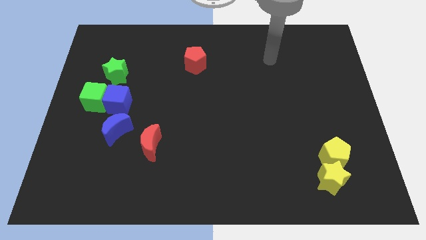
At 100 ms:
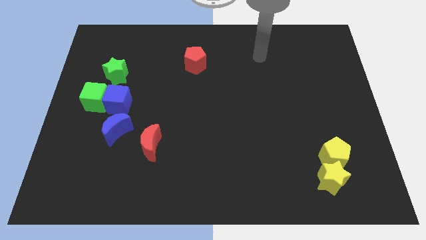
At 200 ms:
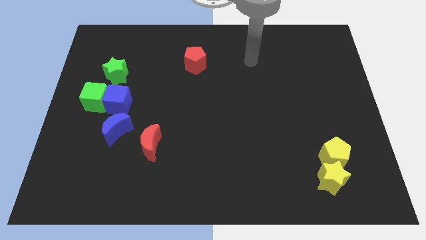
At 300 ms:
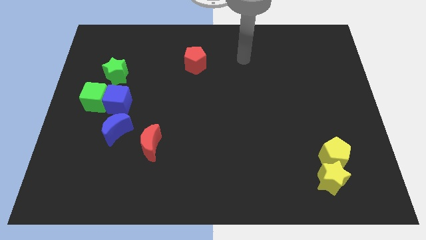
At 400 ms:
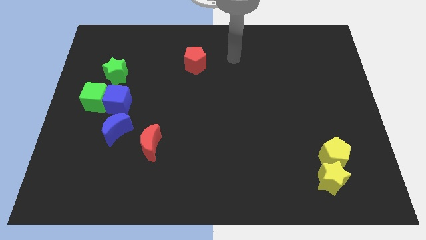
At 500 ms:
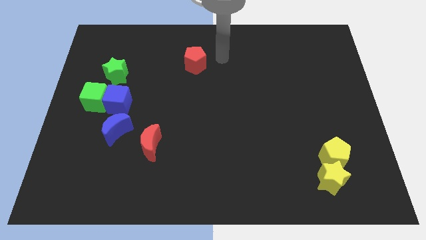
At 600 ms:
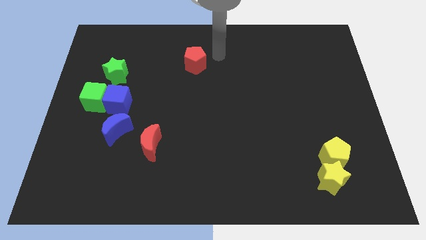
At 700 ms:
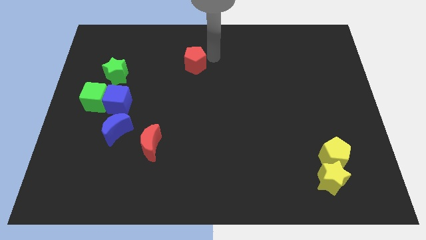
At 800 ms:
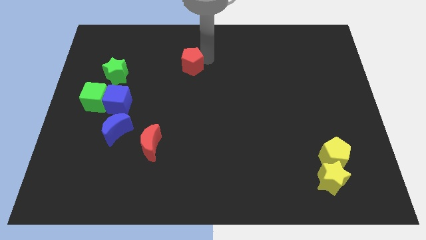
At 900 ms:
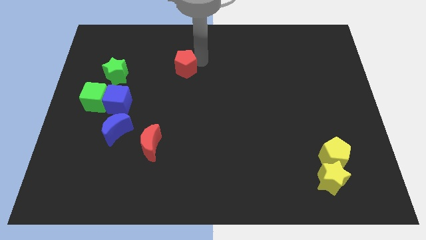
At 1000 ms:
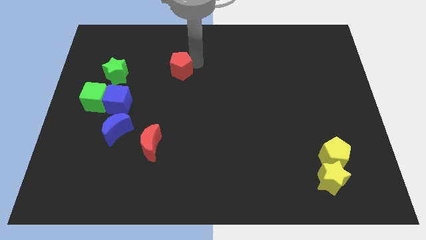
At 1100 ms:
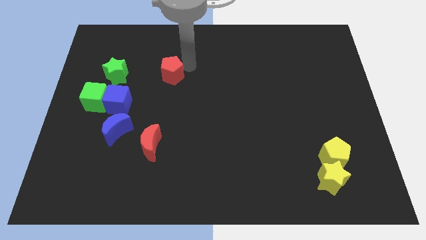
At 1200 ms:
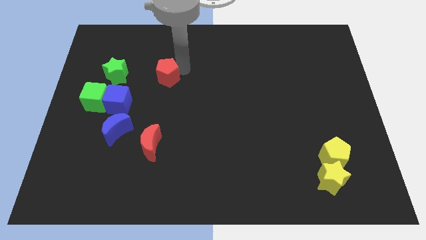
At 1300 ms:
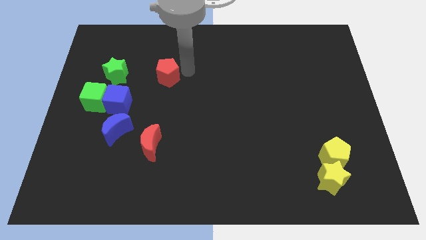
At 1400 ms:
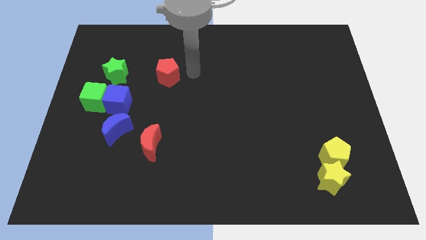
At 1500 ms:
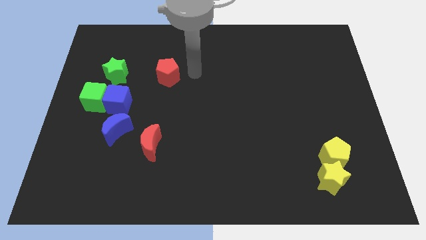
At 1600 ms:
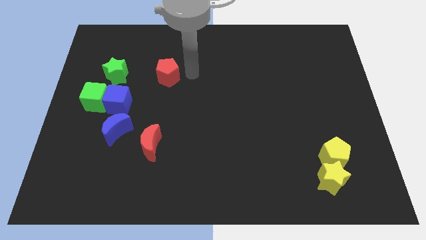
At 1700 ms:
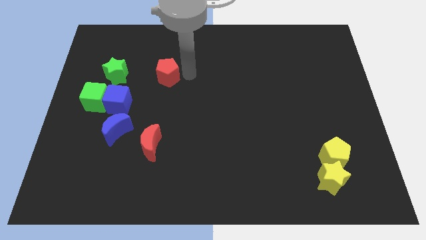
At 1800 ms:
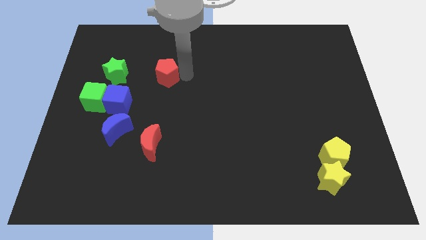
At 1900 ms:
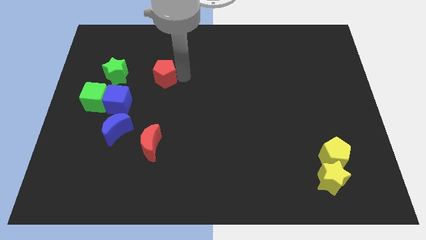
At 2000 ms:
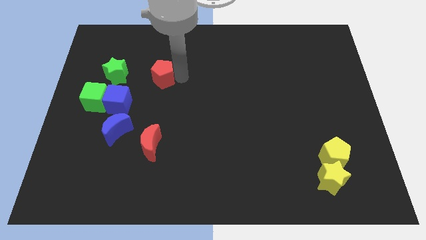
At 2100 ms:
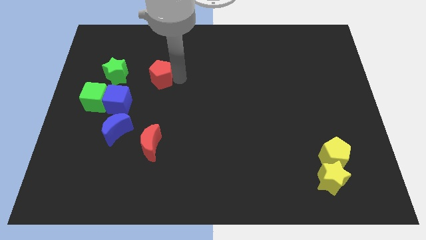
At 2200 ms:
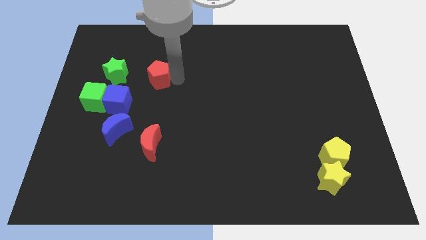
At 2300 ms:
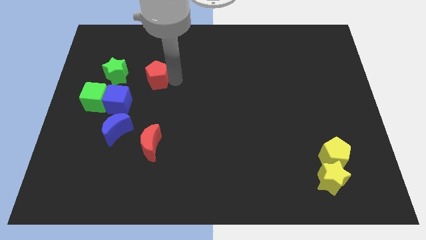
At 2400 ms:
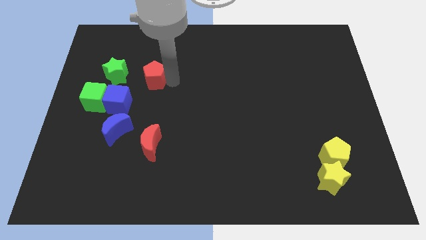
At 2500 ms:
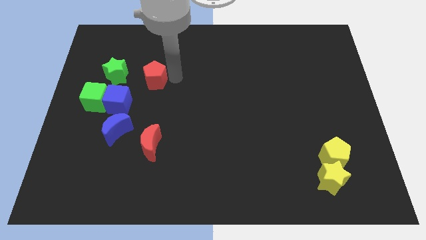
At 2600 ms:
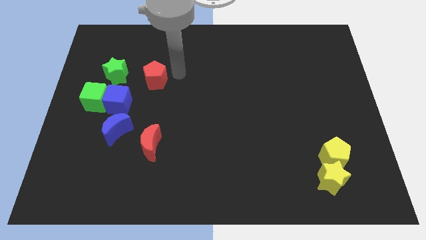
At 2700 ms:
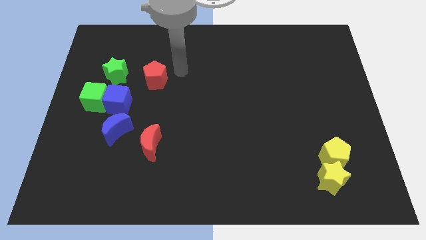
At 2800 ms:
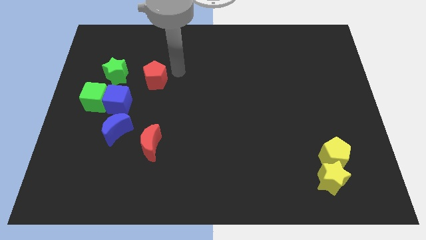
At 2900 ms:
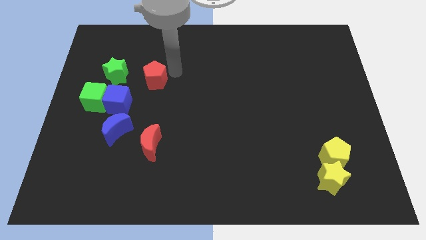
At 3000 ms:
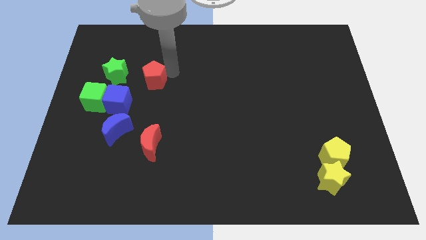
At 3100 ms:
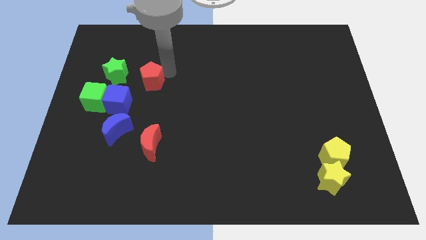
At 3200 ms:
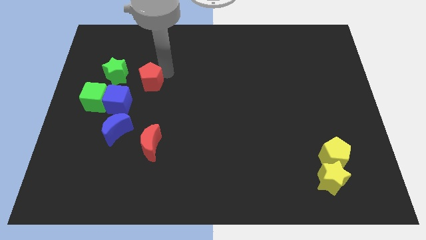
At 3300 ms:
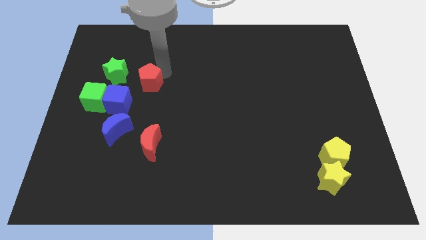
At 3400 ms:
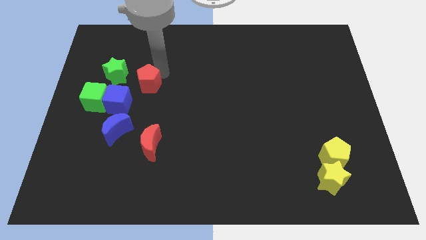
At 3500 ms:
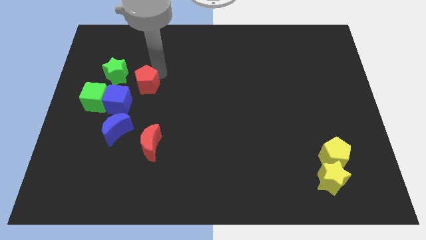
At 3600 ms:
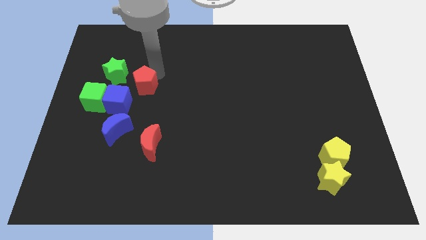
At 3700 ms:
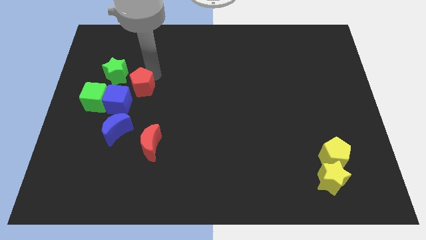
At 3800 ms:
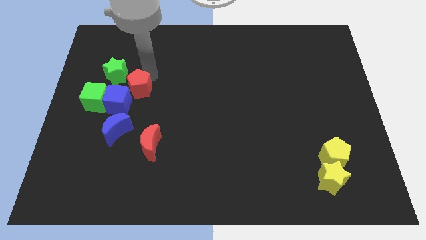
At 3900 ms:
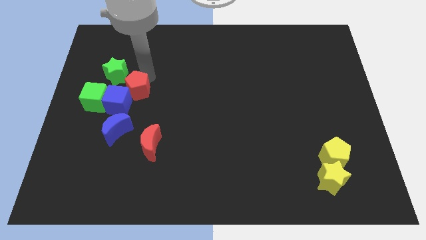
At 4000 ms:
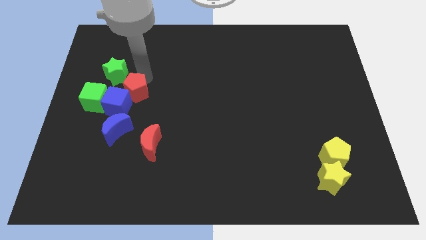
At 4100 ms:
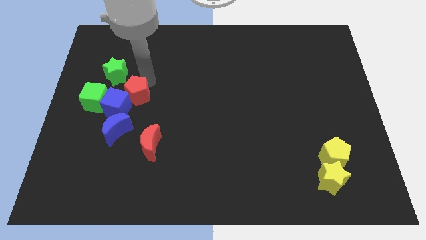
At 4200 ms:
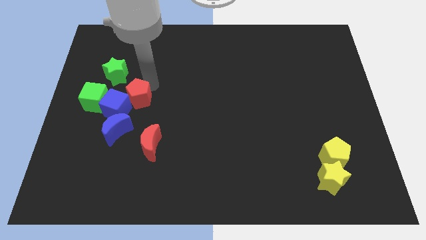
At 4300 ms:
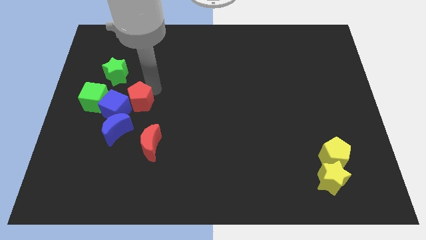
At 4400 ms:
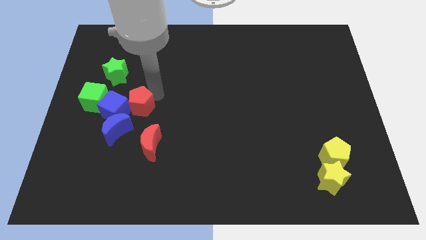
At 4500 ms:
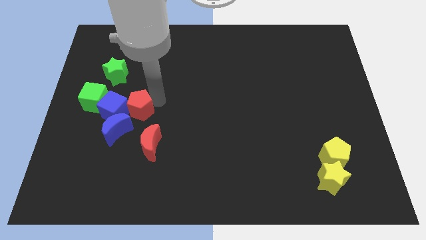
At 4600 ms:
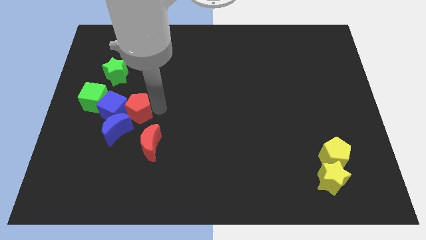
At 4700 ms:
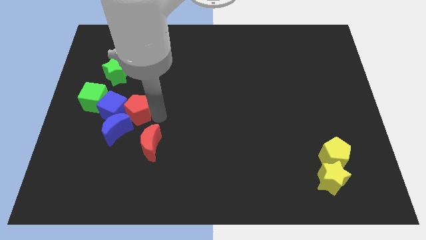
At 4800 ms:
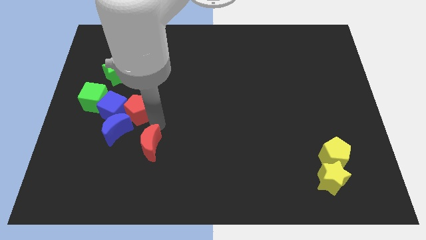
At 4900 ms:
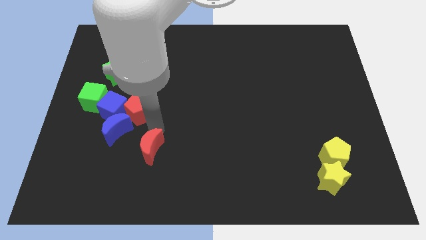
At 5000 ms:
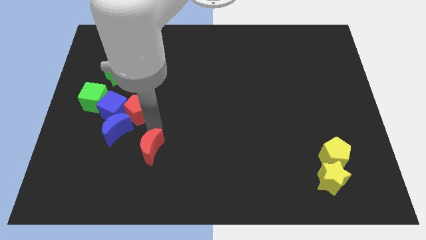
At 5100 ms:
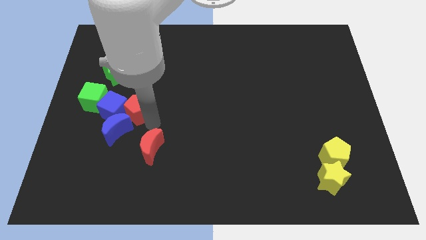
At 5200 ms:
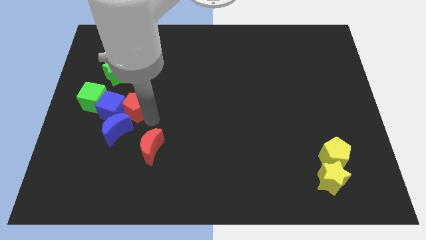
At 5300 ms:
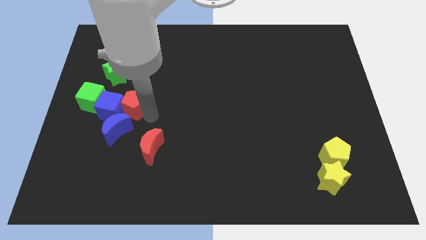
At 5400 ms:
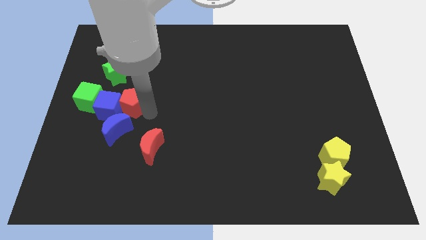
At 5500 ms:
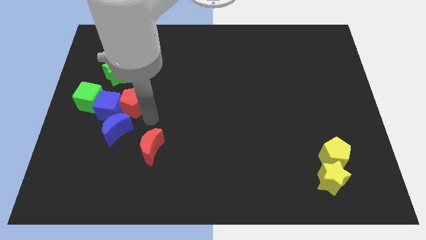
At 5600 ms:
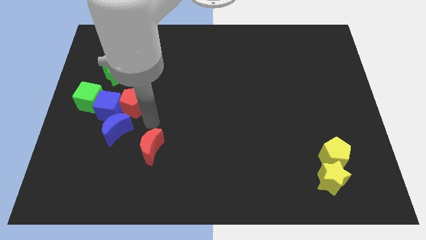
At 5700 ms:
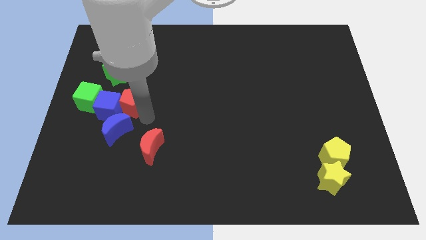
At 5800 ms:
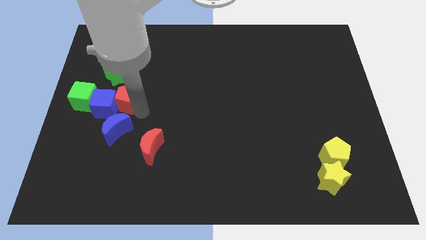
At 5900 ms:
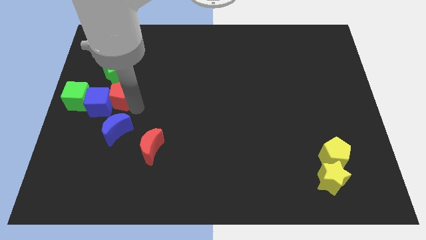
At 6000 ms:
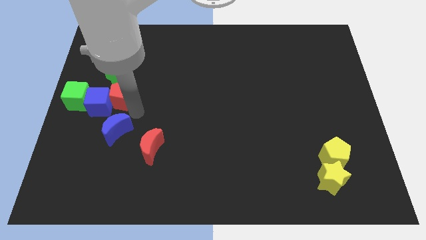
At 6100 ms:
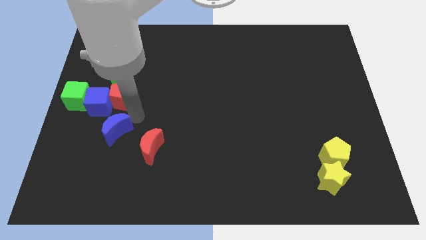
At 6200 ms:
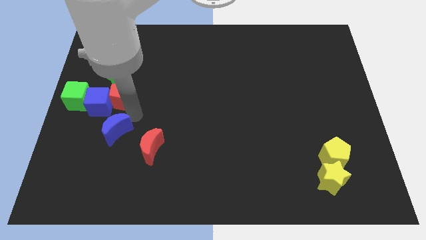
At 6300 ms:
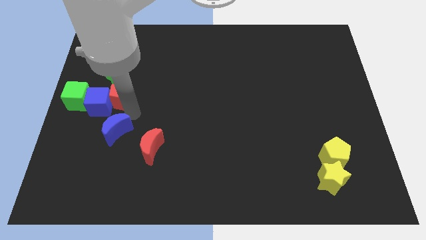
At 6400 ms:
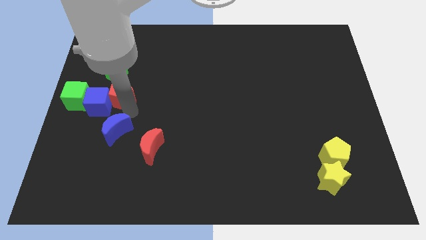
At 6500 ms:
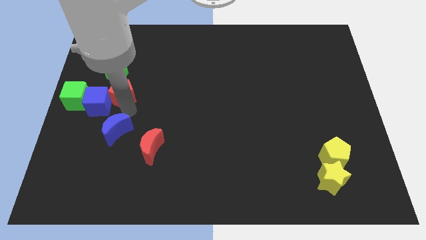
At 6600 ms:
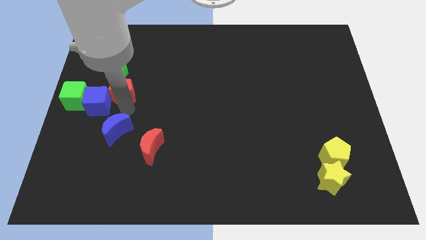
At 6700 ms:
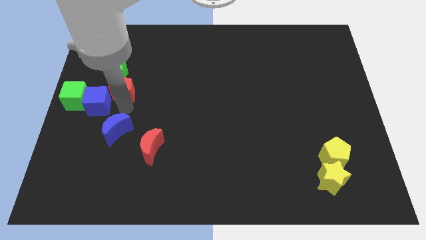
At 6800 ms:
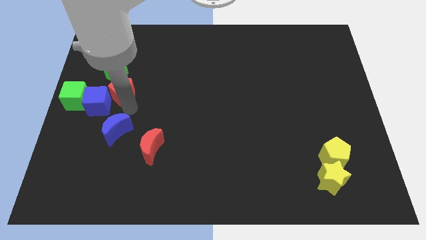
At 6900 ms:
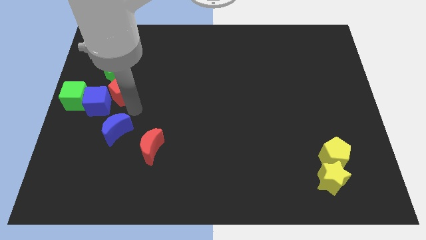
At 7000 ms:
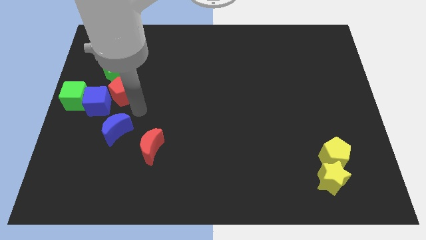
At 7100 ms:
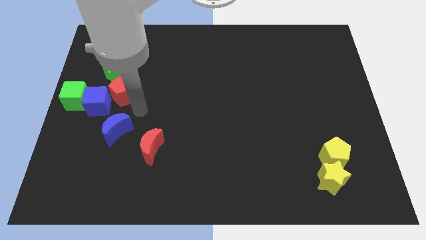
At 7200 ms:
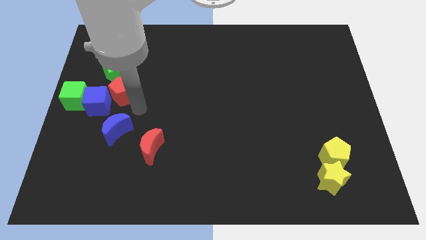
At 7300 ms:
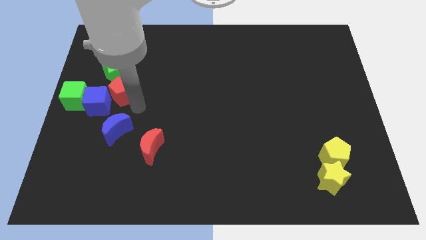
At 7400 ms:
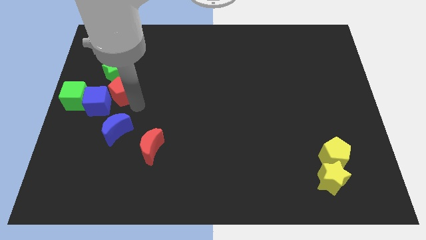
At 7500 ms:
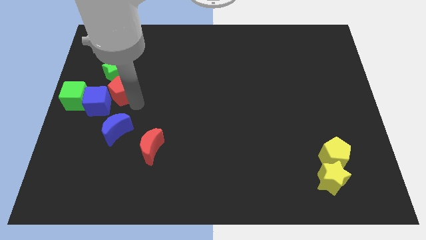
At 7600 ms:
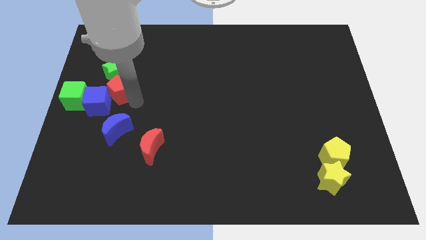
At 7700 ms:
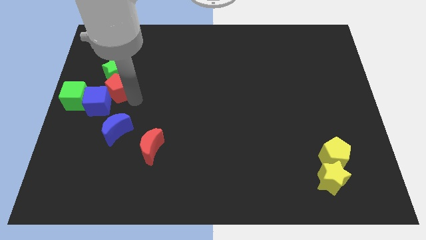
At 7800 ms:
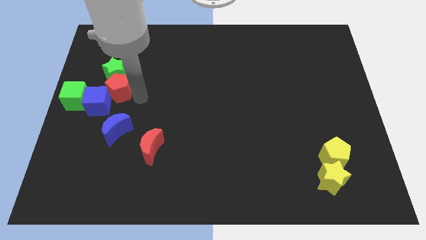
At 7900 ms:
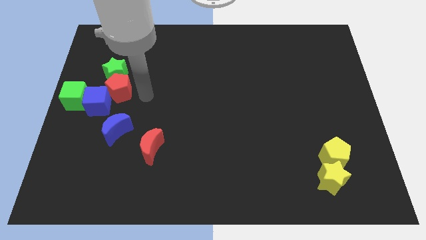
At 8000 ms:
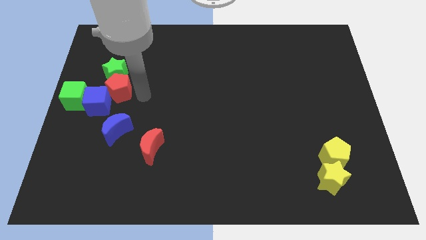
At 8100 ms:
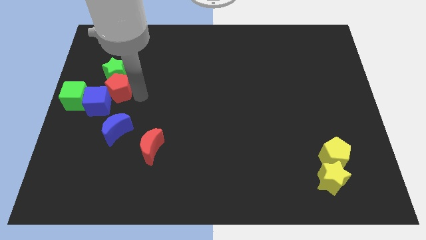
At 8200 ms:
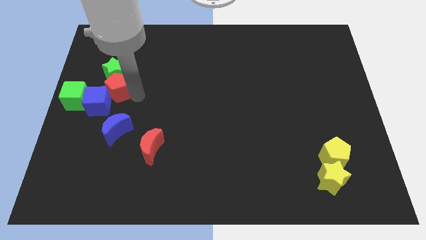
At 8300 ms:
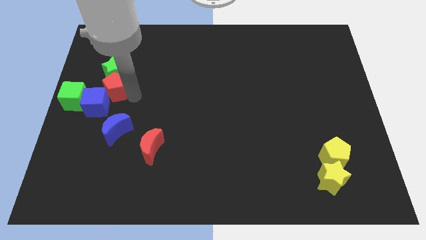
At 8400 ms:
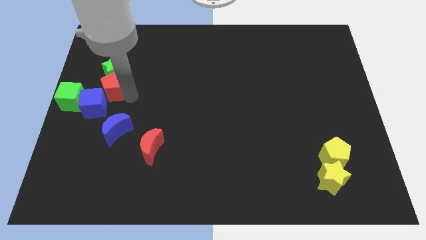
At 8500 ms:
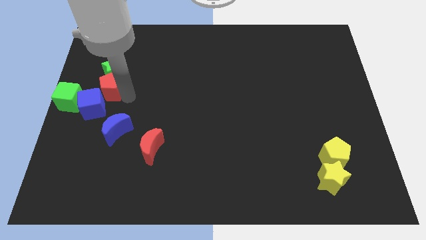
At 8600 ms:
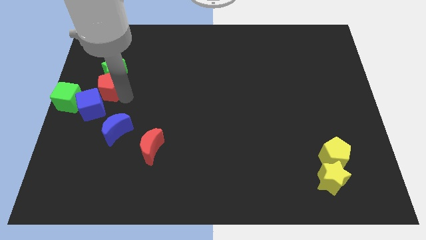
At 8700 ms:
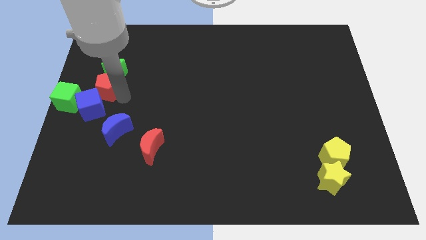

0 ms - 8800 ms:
slide the red pentagon to the center left
